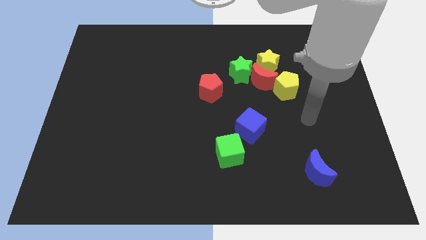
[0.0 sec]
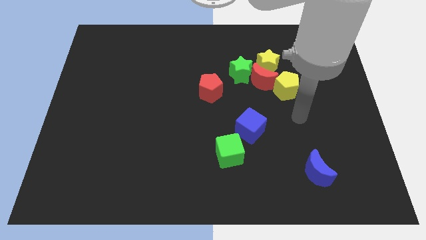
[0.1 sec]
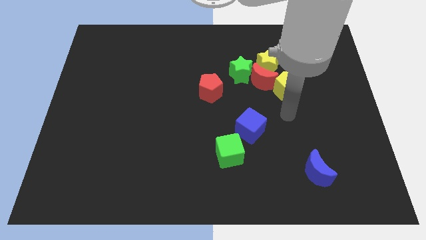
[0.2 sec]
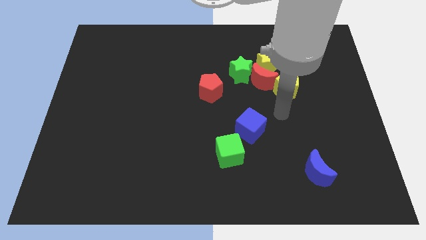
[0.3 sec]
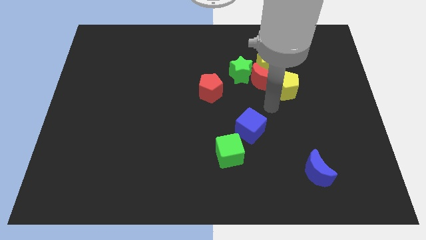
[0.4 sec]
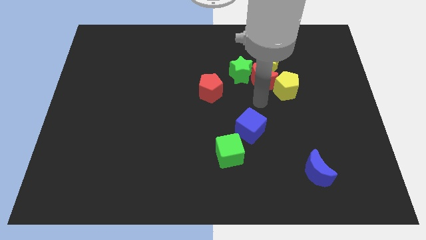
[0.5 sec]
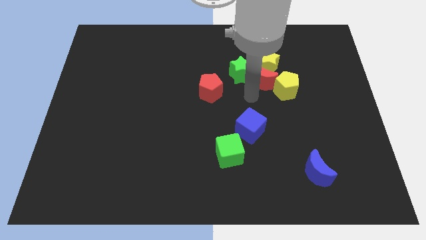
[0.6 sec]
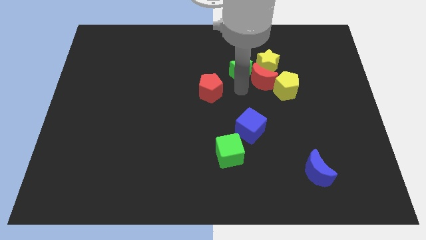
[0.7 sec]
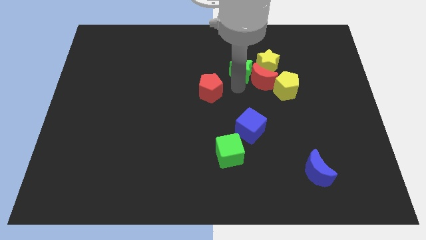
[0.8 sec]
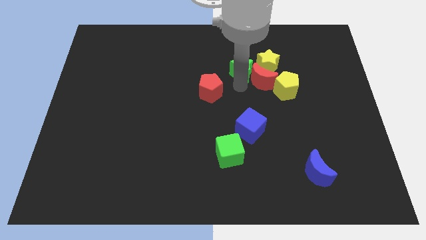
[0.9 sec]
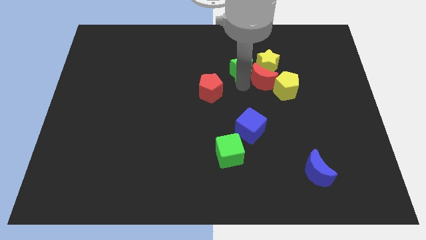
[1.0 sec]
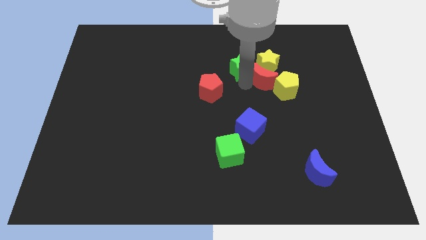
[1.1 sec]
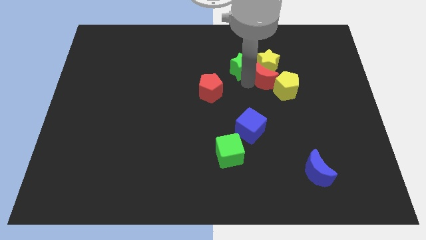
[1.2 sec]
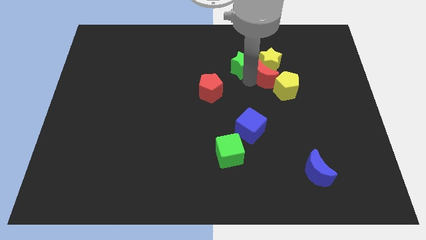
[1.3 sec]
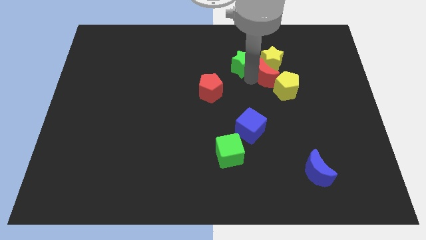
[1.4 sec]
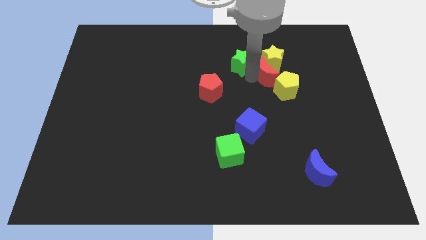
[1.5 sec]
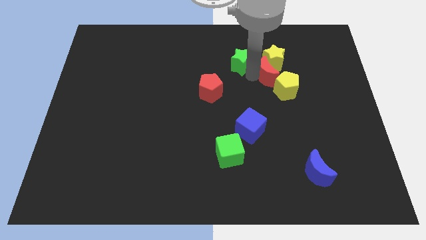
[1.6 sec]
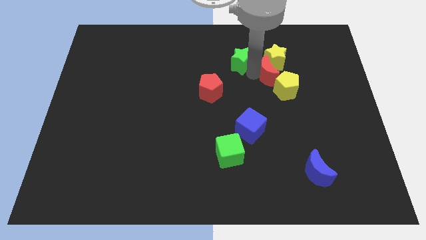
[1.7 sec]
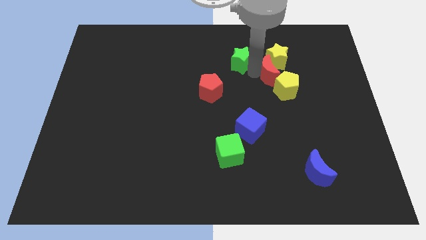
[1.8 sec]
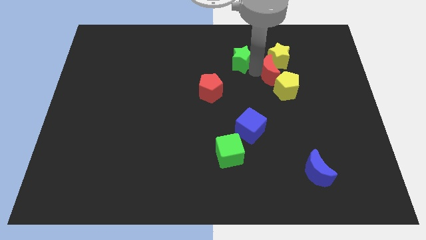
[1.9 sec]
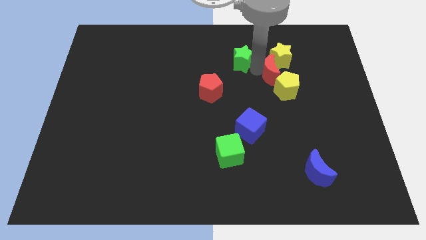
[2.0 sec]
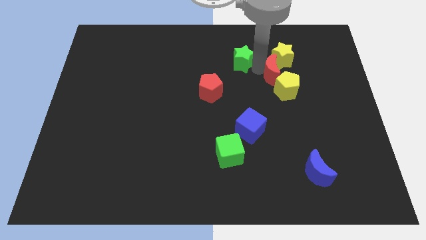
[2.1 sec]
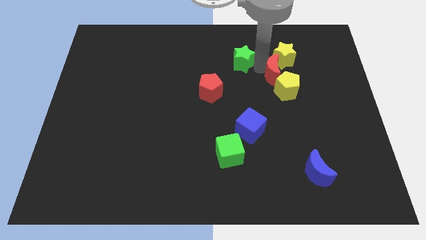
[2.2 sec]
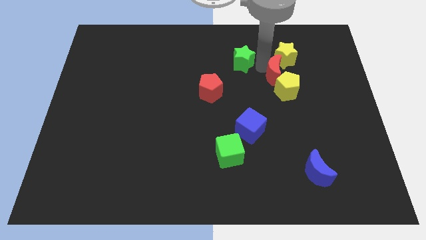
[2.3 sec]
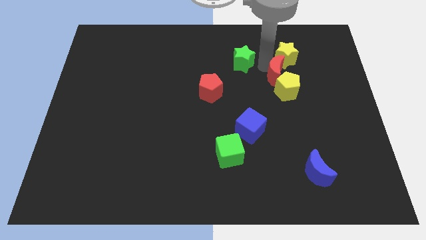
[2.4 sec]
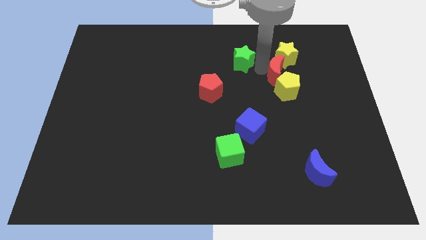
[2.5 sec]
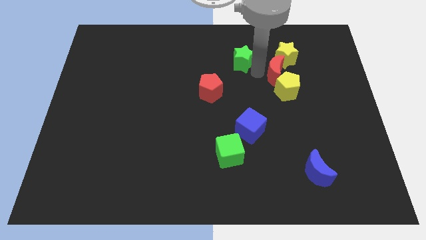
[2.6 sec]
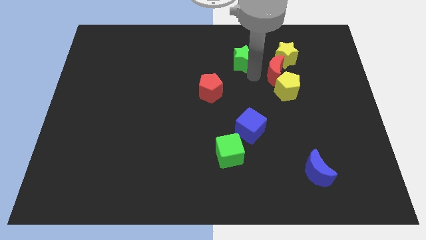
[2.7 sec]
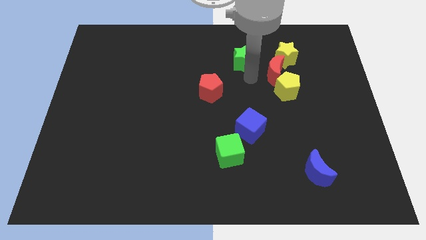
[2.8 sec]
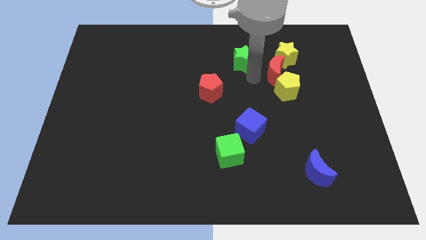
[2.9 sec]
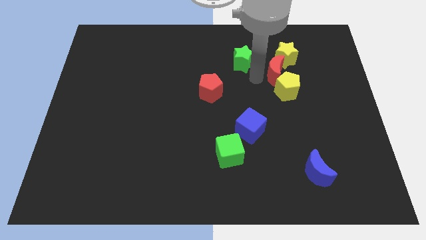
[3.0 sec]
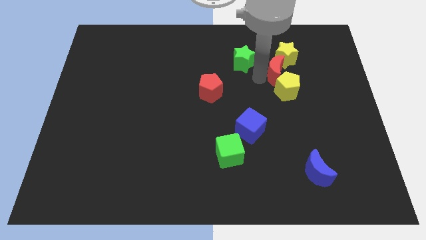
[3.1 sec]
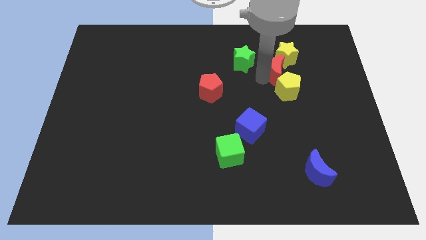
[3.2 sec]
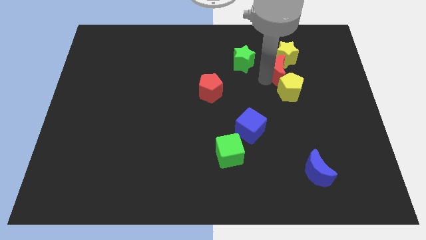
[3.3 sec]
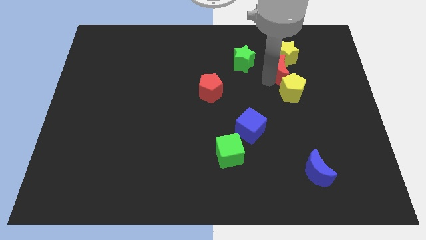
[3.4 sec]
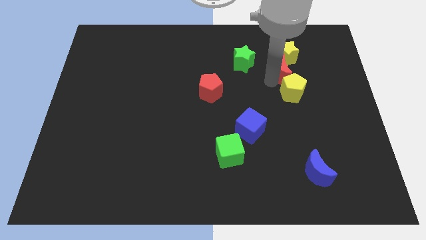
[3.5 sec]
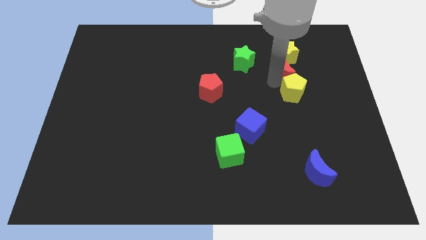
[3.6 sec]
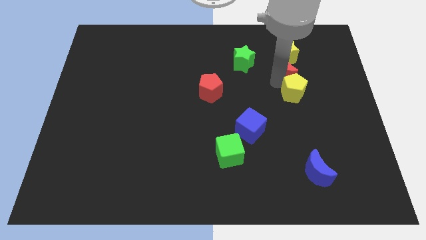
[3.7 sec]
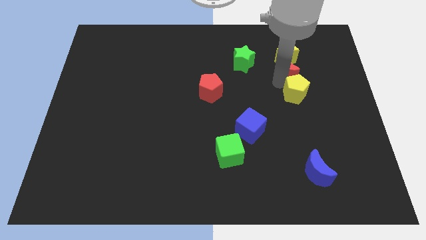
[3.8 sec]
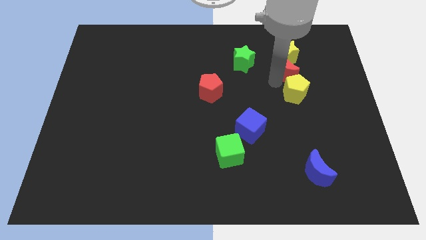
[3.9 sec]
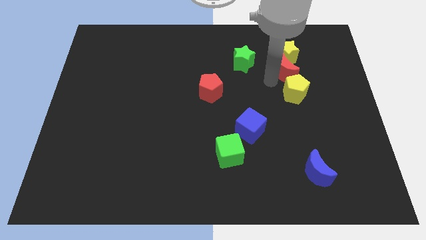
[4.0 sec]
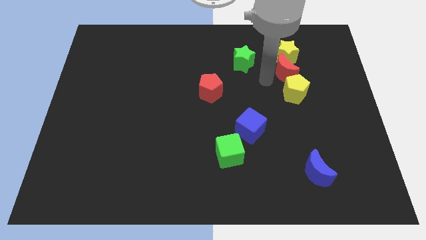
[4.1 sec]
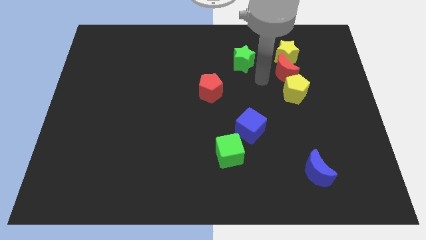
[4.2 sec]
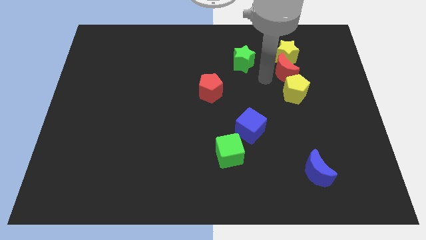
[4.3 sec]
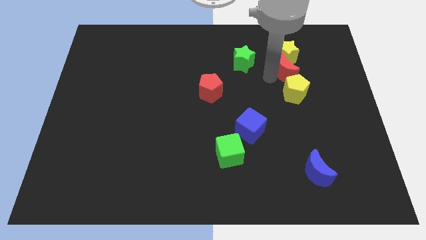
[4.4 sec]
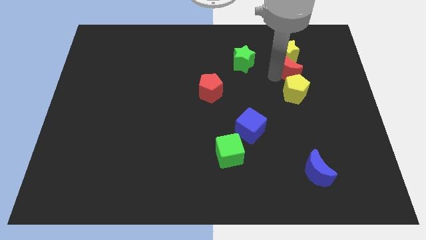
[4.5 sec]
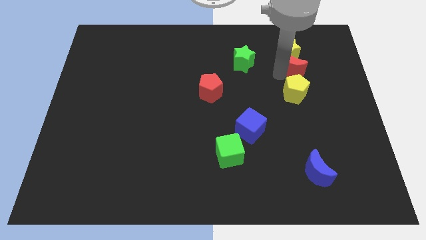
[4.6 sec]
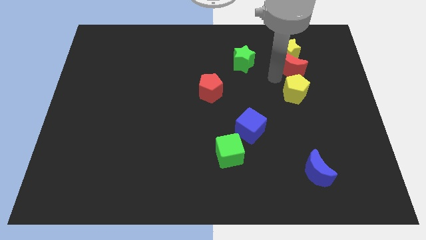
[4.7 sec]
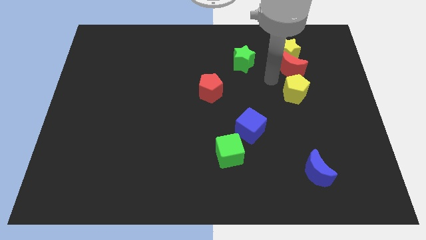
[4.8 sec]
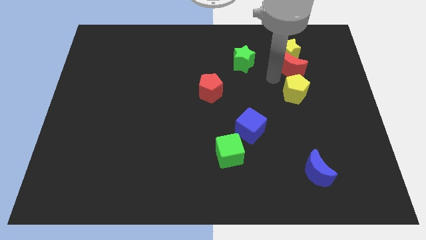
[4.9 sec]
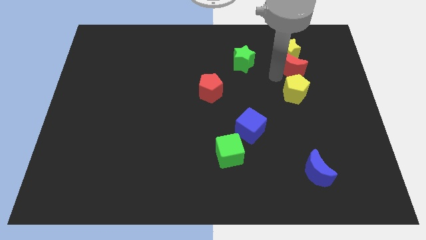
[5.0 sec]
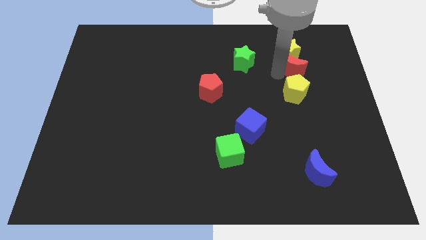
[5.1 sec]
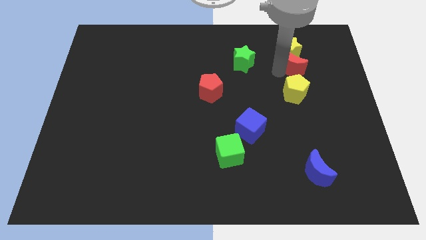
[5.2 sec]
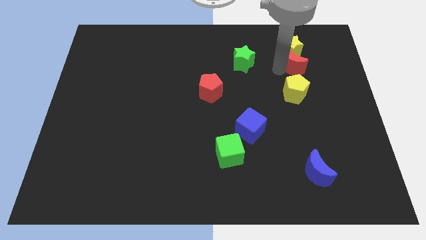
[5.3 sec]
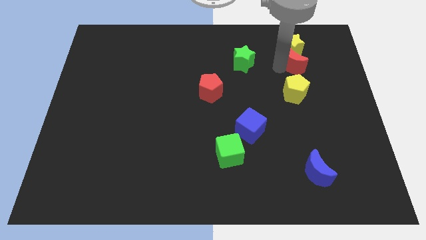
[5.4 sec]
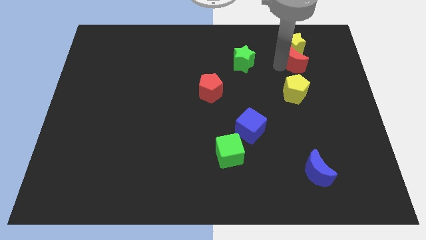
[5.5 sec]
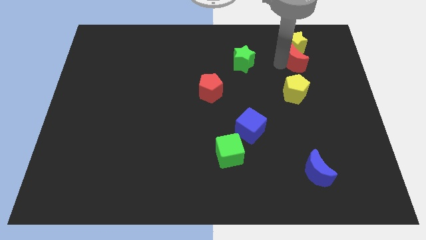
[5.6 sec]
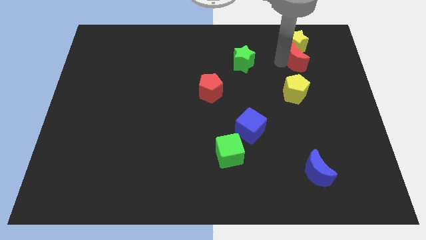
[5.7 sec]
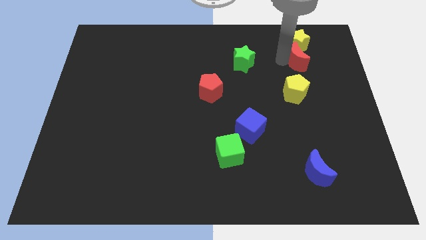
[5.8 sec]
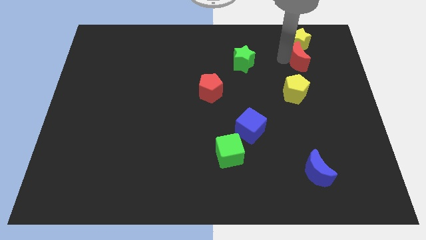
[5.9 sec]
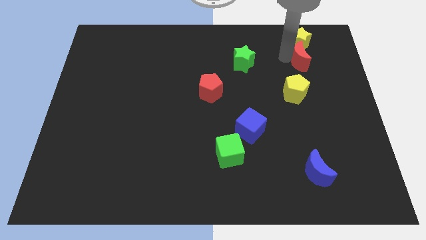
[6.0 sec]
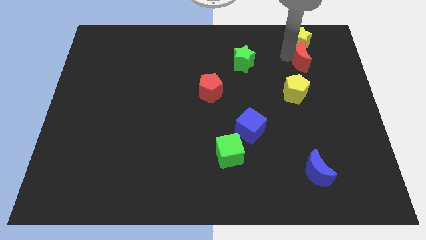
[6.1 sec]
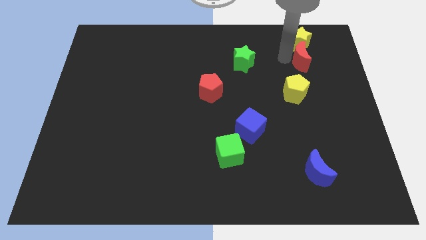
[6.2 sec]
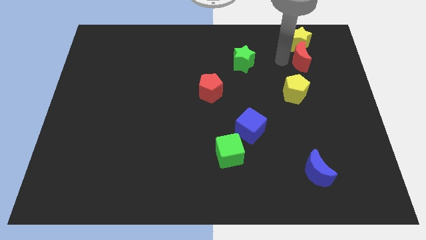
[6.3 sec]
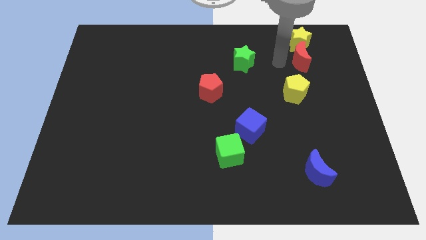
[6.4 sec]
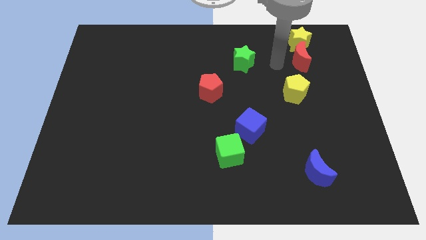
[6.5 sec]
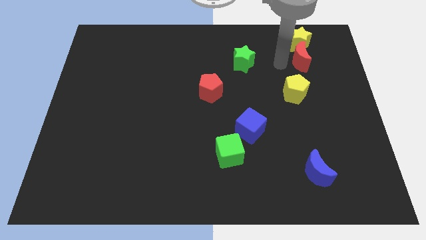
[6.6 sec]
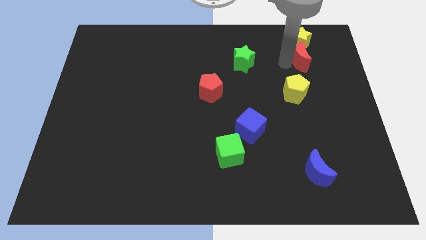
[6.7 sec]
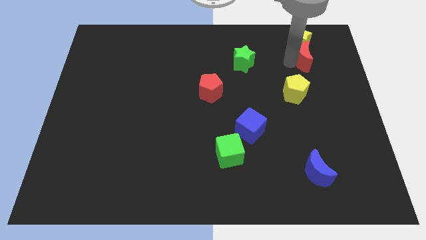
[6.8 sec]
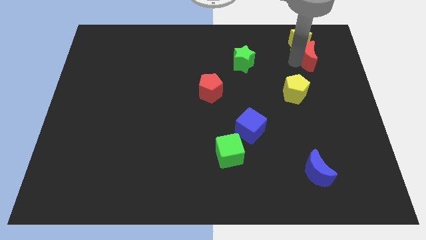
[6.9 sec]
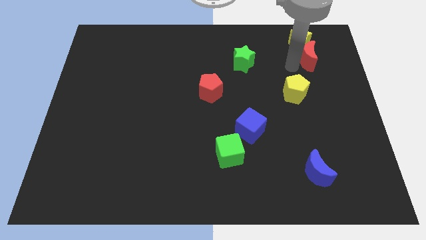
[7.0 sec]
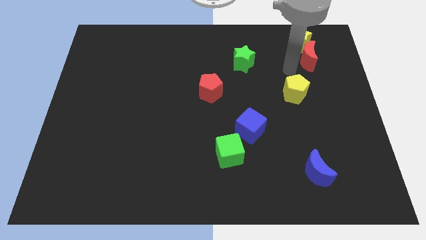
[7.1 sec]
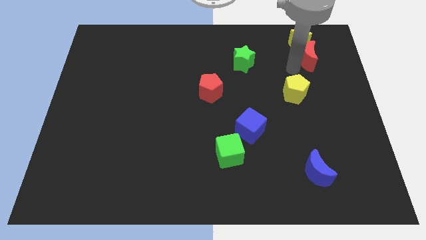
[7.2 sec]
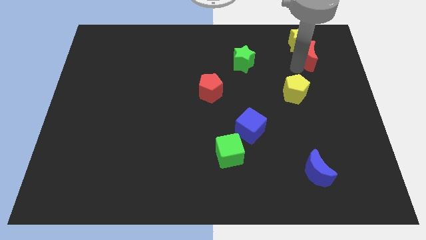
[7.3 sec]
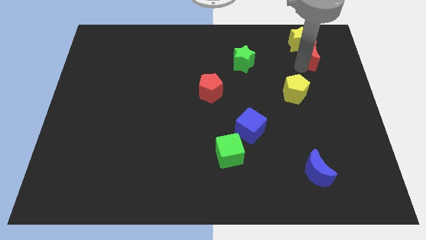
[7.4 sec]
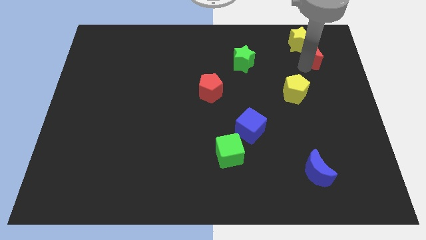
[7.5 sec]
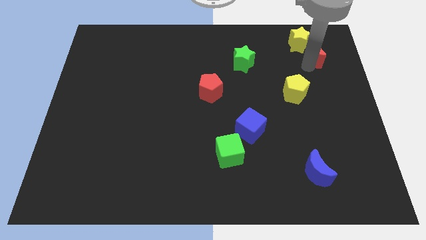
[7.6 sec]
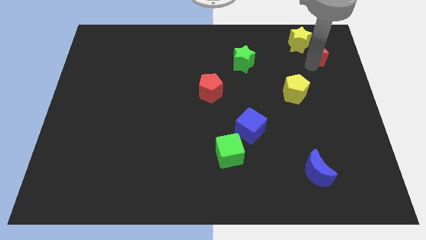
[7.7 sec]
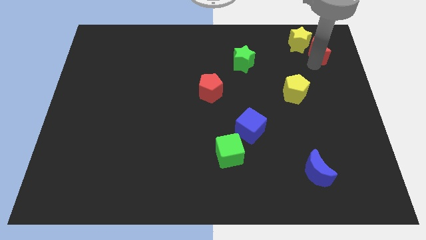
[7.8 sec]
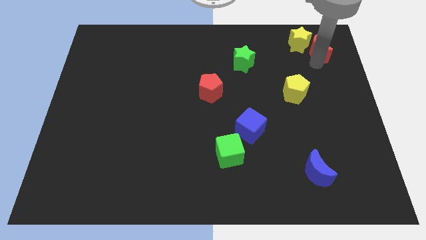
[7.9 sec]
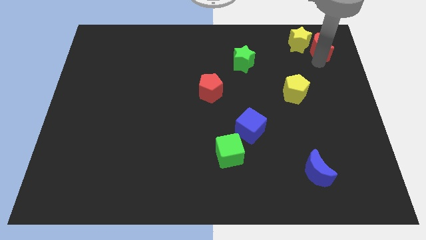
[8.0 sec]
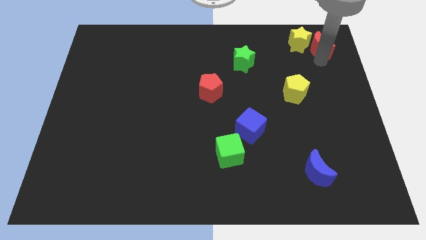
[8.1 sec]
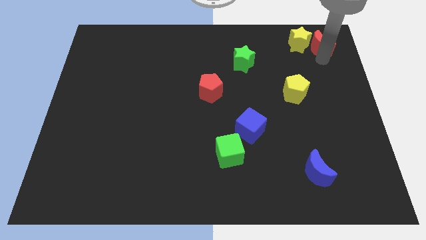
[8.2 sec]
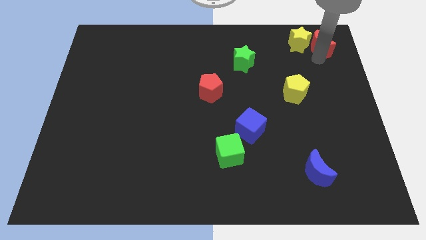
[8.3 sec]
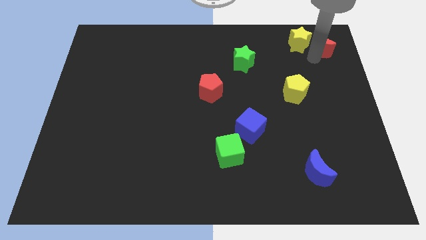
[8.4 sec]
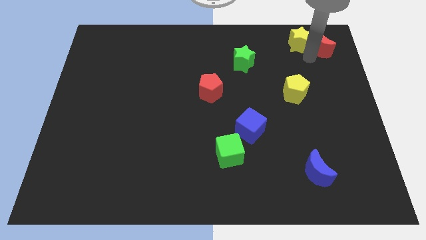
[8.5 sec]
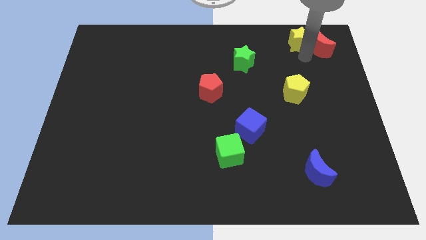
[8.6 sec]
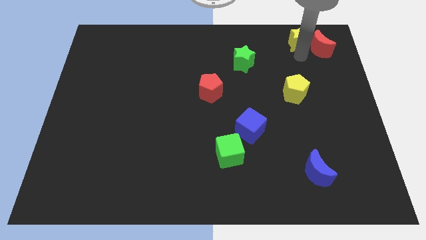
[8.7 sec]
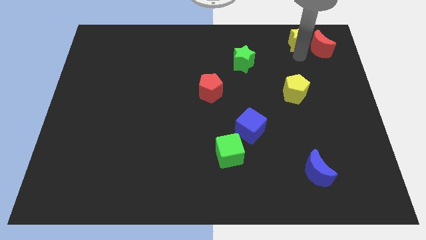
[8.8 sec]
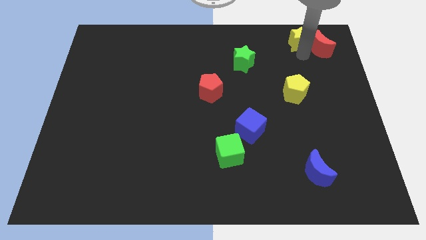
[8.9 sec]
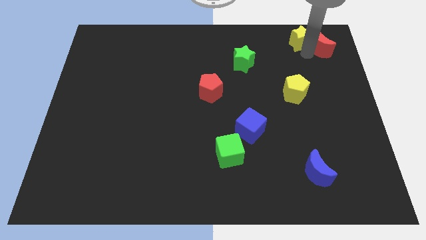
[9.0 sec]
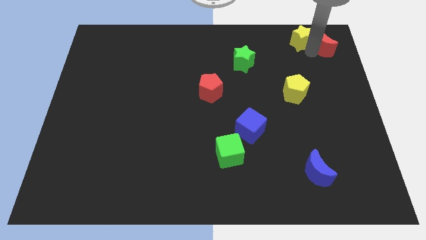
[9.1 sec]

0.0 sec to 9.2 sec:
slide the red moon to the top right
